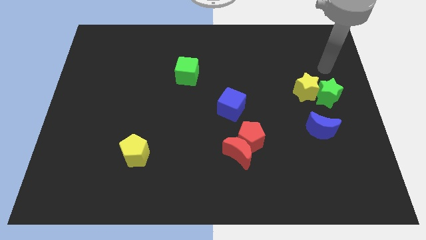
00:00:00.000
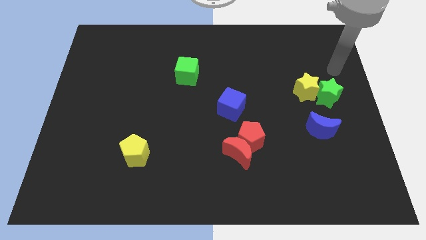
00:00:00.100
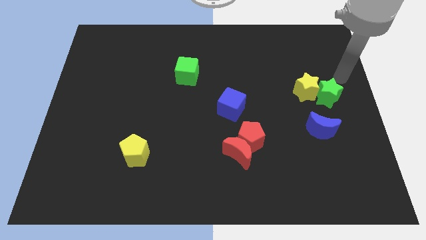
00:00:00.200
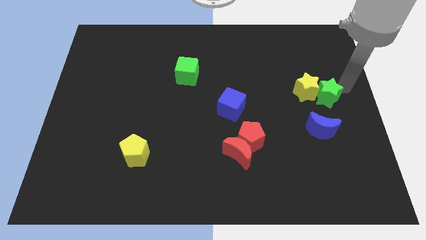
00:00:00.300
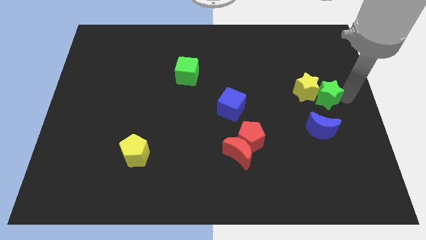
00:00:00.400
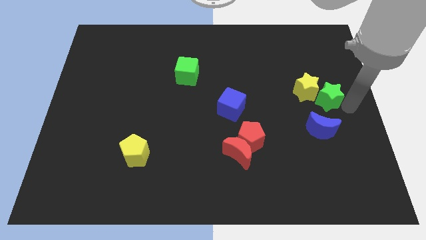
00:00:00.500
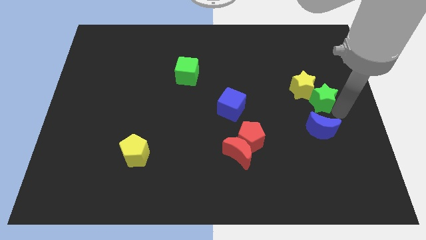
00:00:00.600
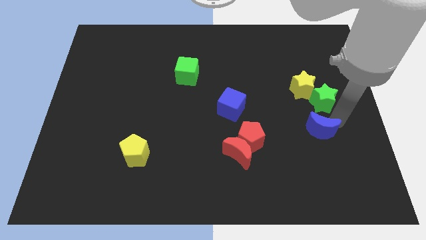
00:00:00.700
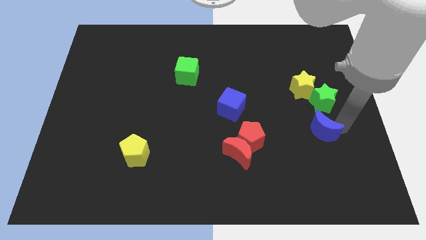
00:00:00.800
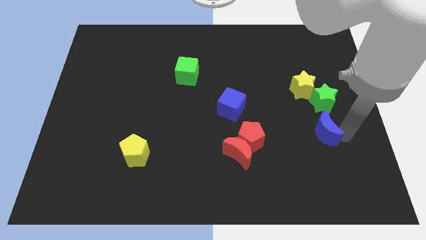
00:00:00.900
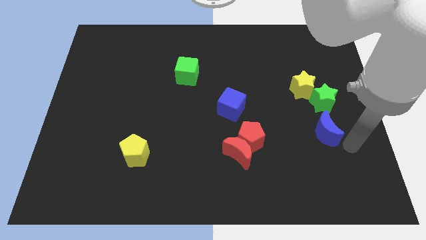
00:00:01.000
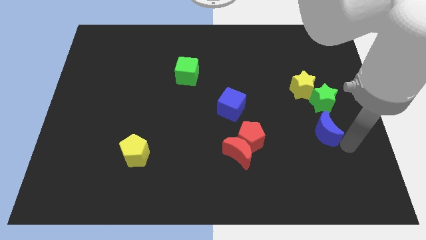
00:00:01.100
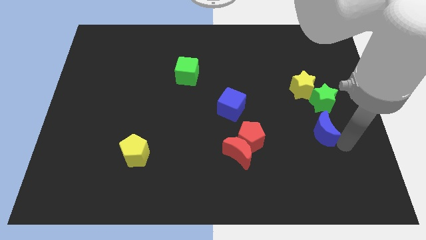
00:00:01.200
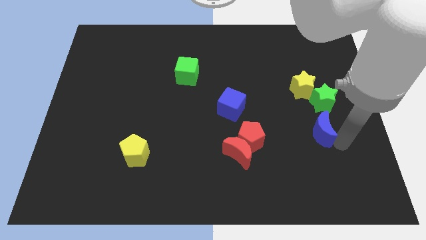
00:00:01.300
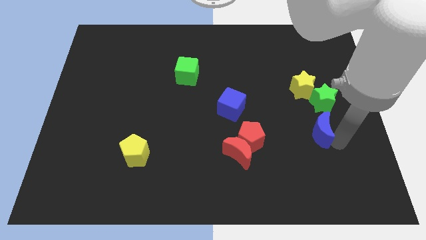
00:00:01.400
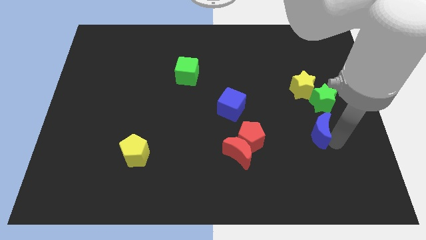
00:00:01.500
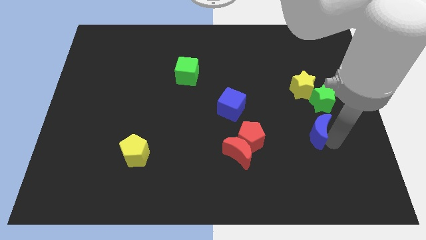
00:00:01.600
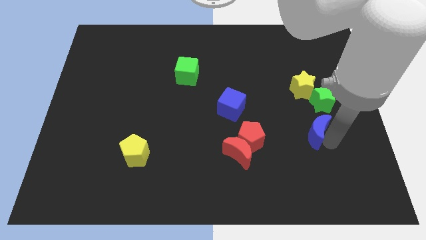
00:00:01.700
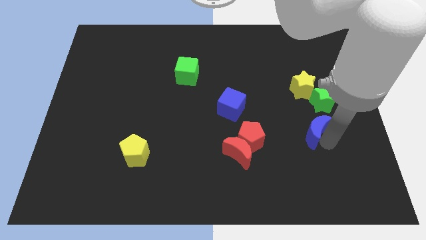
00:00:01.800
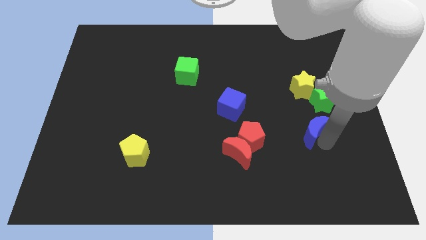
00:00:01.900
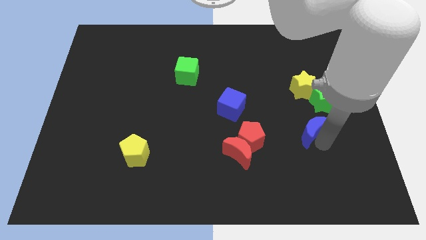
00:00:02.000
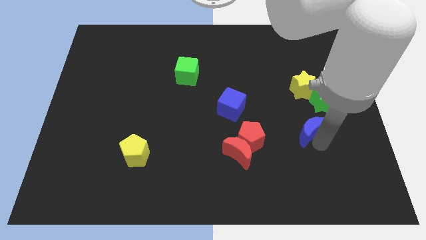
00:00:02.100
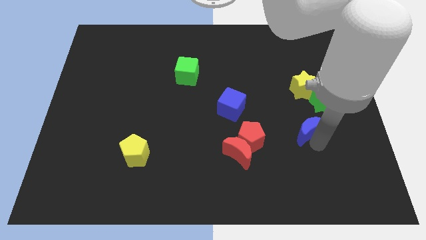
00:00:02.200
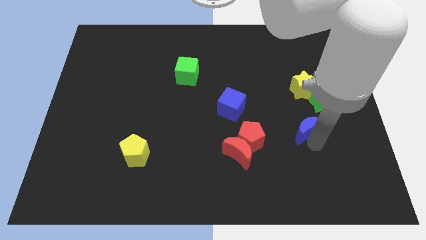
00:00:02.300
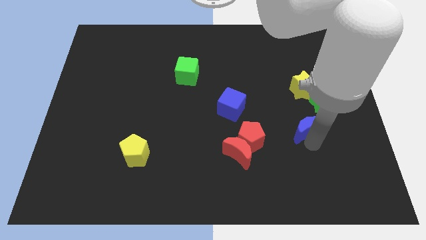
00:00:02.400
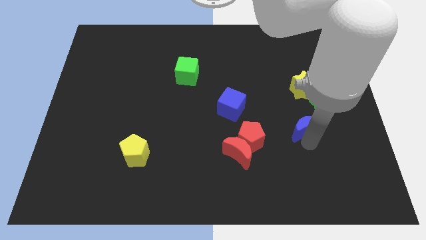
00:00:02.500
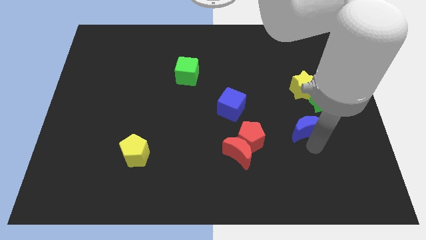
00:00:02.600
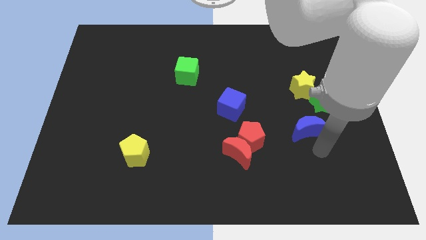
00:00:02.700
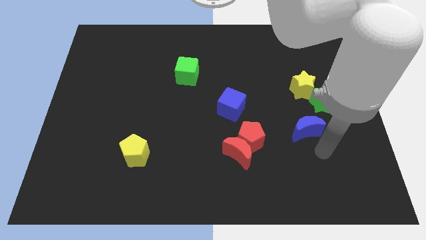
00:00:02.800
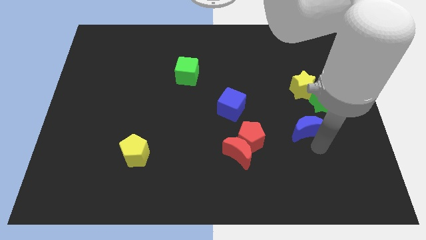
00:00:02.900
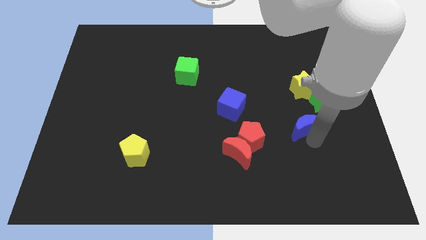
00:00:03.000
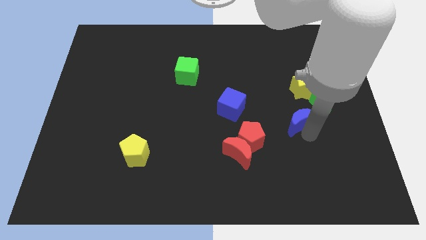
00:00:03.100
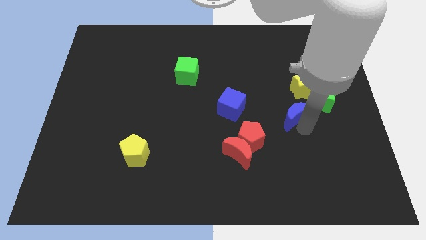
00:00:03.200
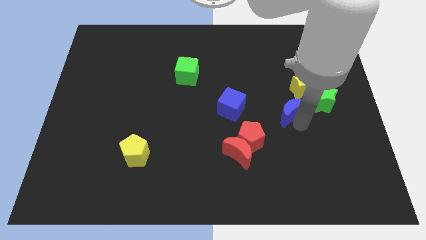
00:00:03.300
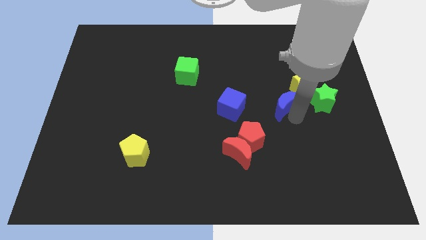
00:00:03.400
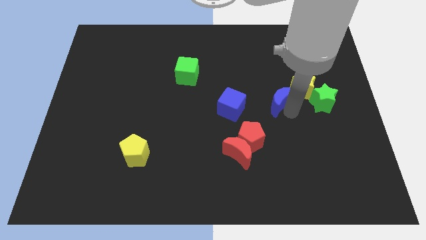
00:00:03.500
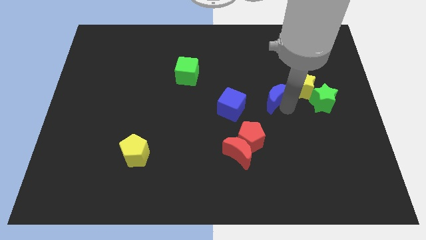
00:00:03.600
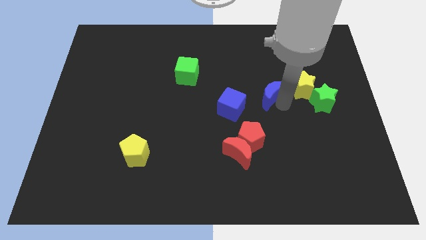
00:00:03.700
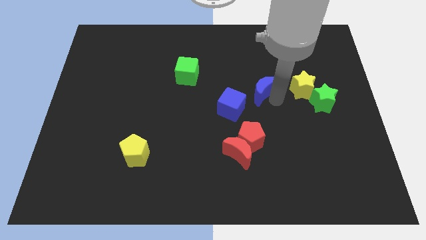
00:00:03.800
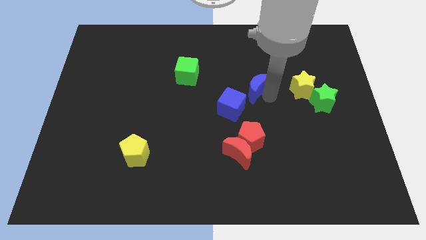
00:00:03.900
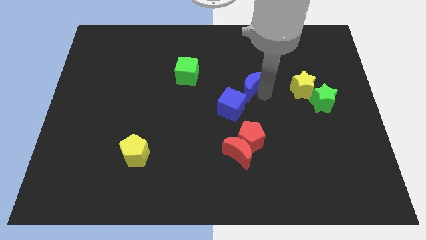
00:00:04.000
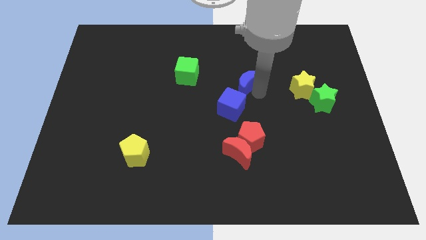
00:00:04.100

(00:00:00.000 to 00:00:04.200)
push the blue moon diagonally up and left

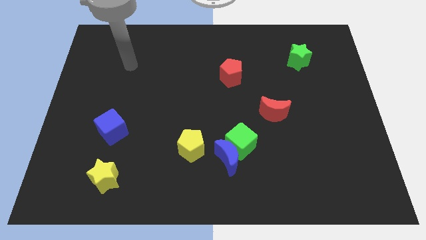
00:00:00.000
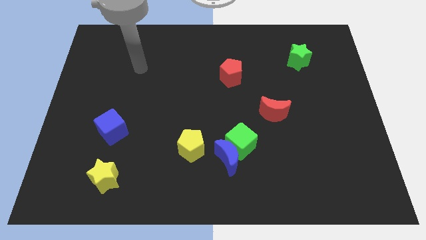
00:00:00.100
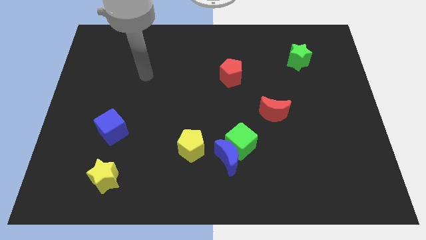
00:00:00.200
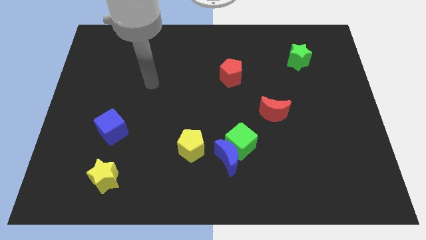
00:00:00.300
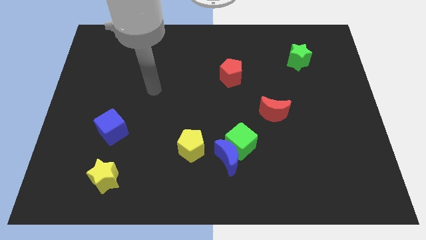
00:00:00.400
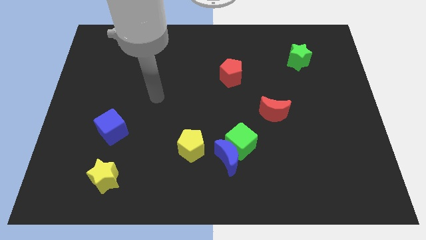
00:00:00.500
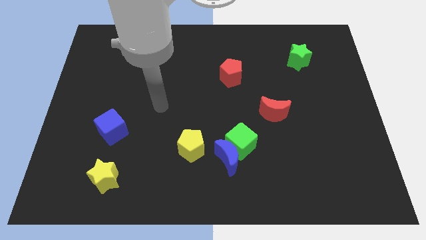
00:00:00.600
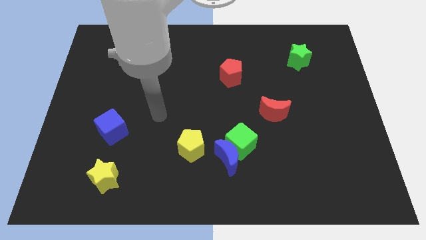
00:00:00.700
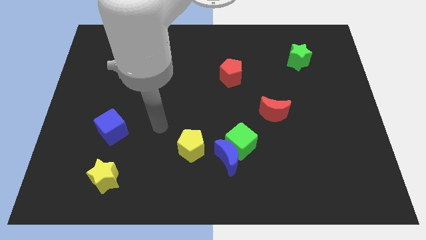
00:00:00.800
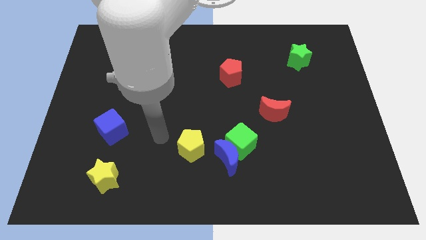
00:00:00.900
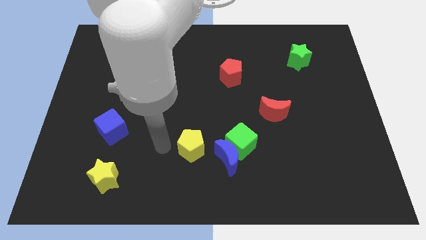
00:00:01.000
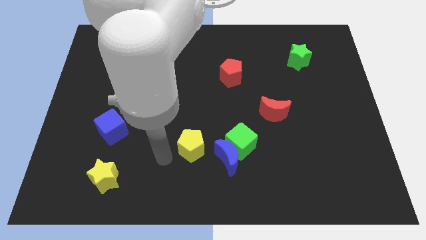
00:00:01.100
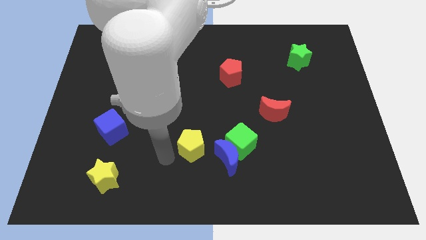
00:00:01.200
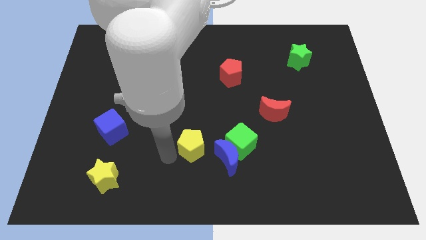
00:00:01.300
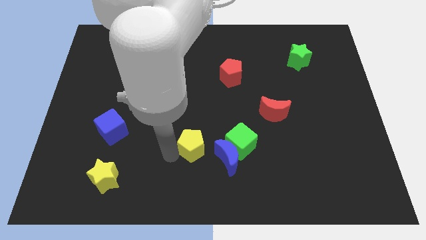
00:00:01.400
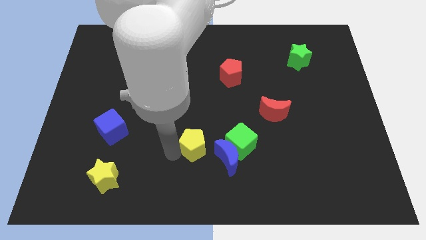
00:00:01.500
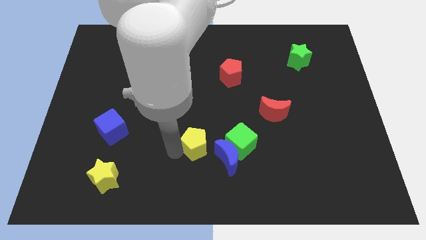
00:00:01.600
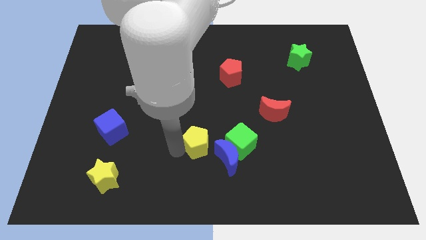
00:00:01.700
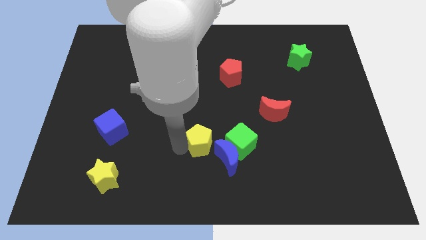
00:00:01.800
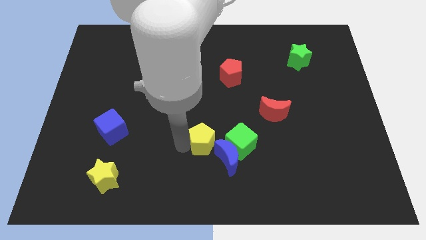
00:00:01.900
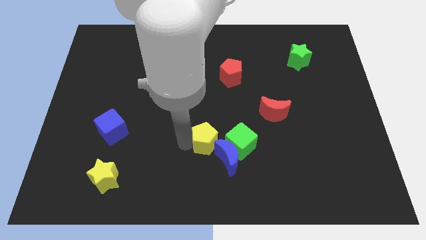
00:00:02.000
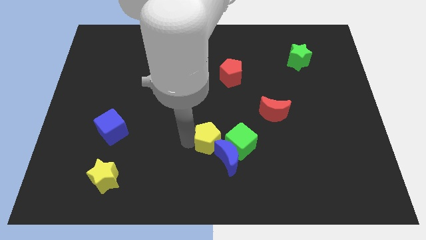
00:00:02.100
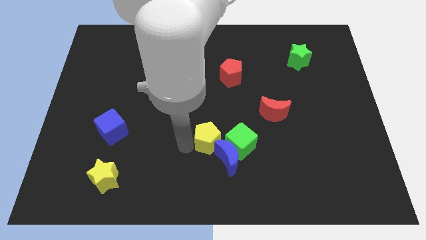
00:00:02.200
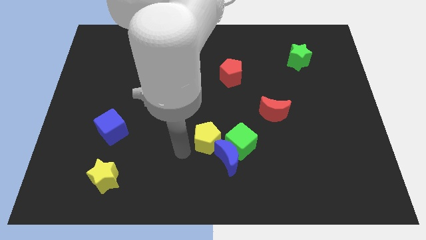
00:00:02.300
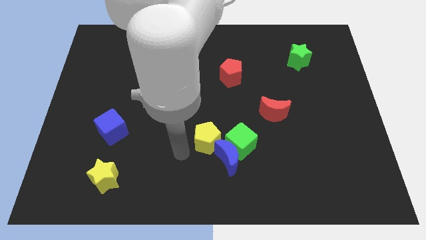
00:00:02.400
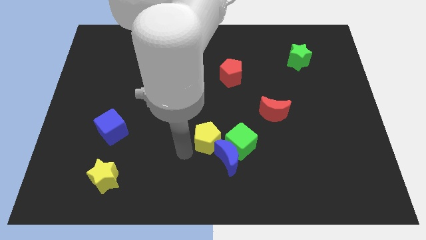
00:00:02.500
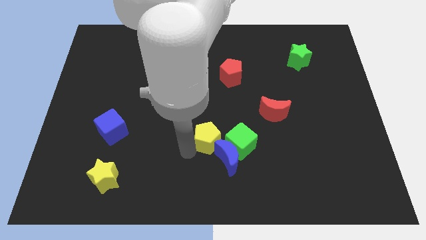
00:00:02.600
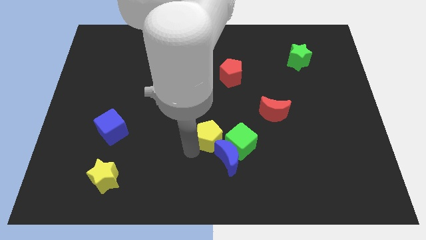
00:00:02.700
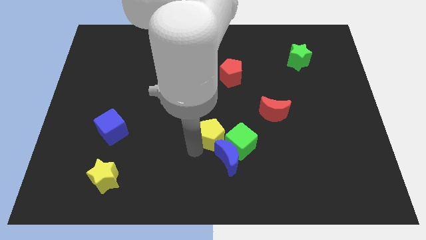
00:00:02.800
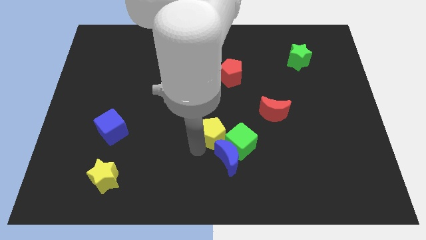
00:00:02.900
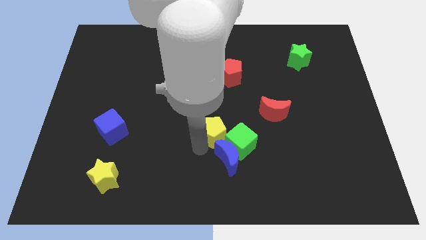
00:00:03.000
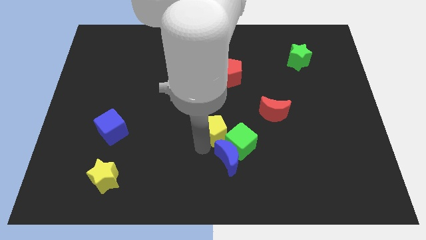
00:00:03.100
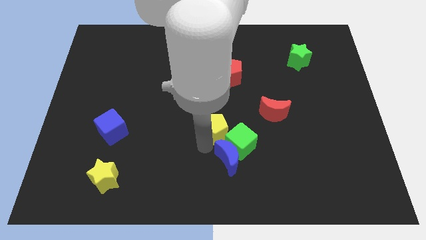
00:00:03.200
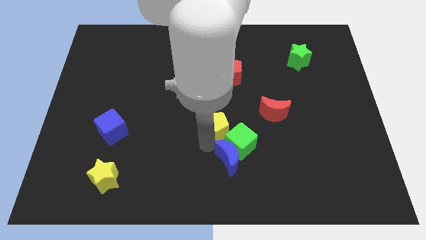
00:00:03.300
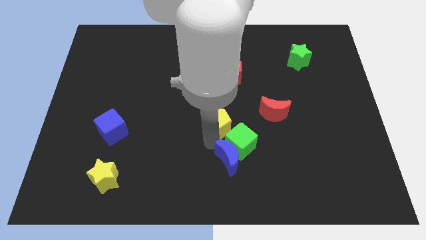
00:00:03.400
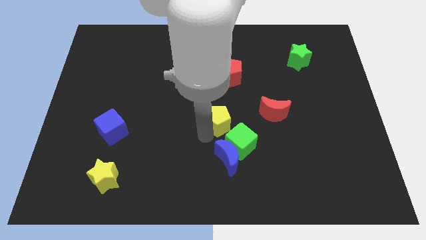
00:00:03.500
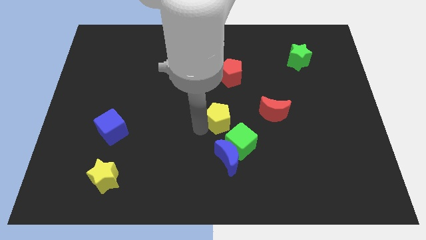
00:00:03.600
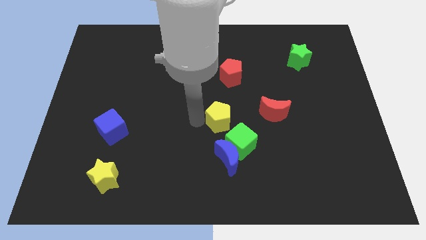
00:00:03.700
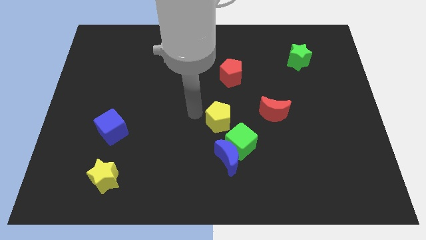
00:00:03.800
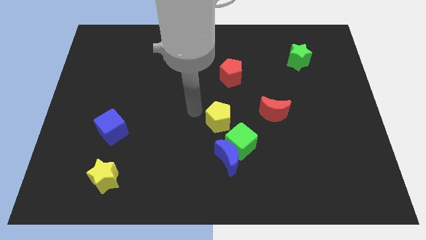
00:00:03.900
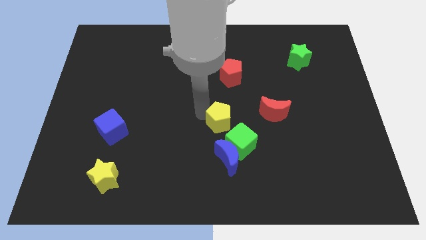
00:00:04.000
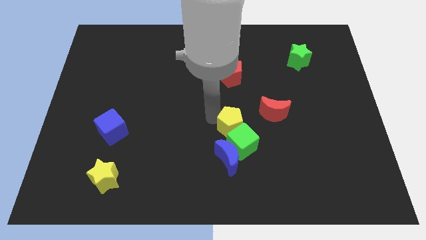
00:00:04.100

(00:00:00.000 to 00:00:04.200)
push the yellow pentagon to the right a little bit
